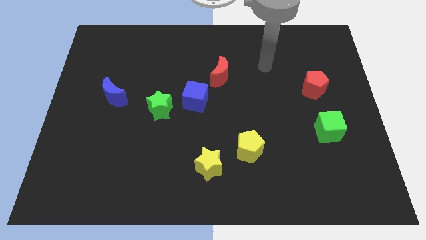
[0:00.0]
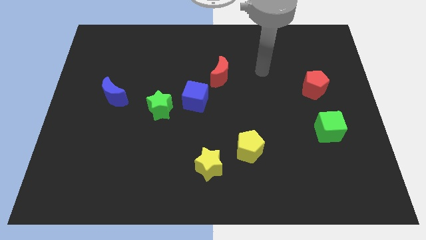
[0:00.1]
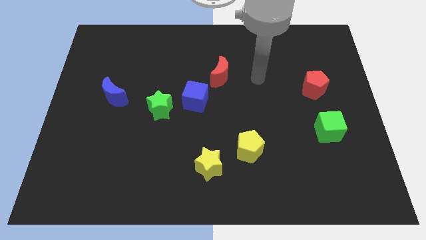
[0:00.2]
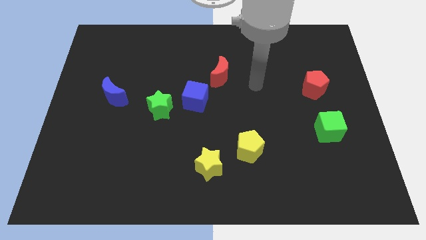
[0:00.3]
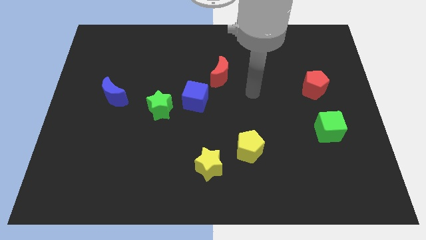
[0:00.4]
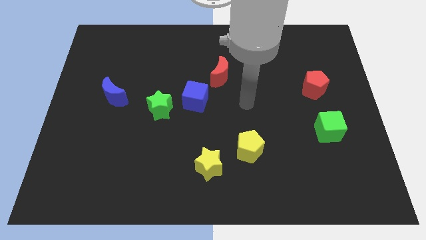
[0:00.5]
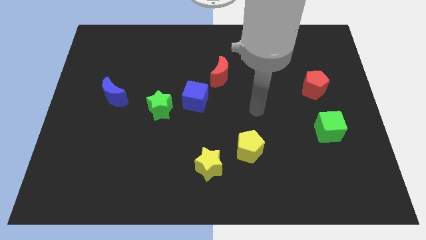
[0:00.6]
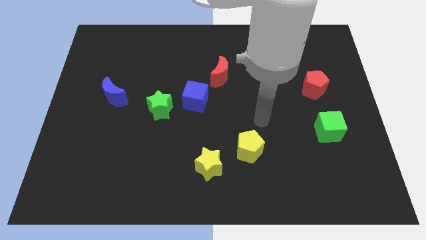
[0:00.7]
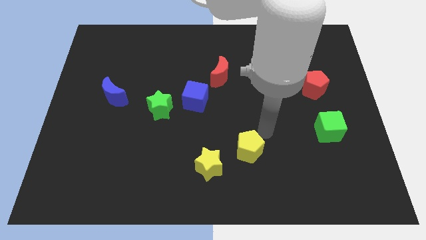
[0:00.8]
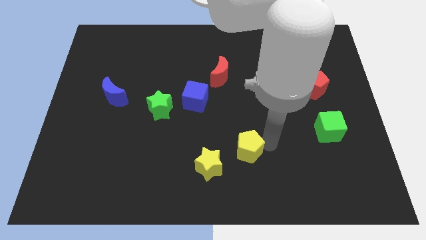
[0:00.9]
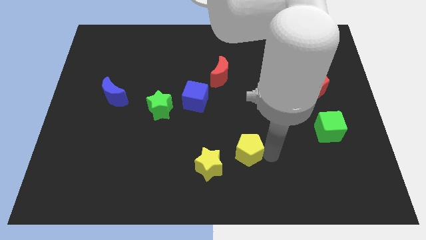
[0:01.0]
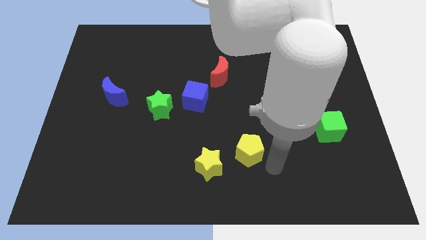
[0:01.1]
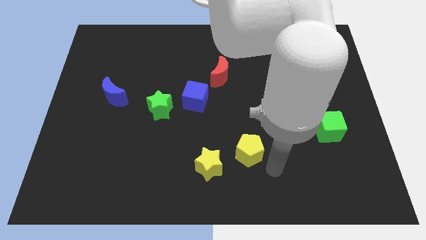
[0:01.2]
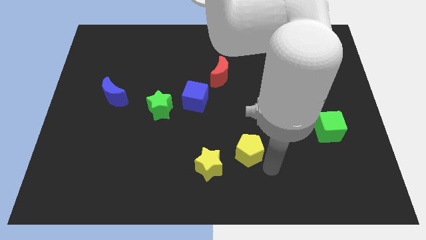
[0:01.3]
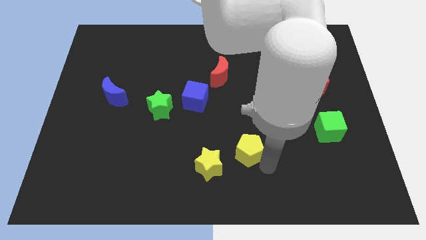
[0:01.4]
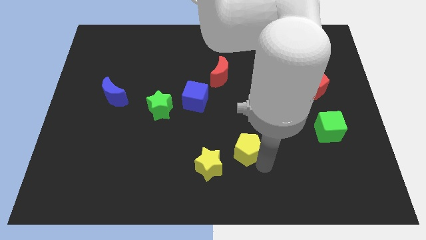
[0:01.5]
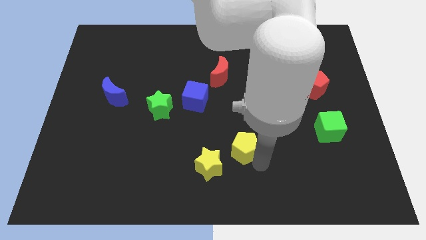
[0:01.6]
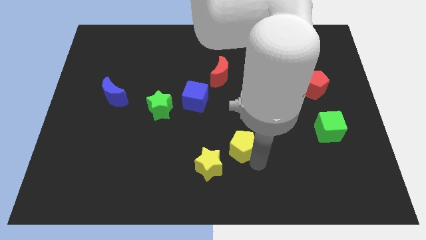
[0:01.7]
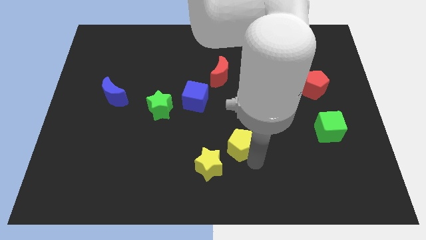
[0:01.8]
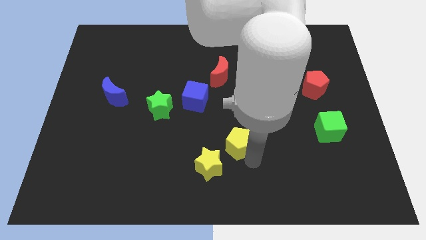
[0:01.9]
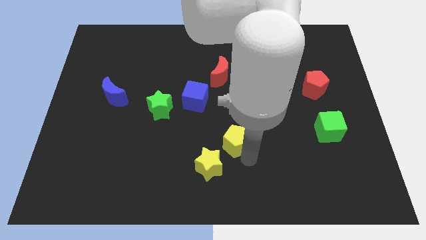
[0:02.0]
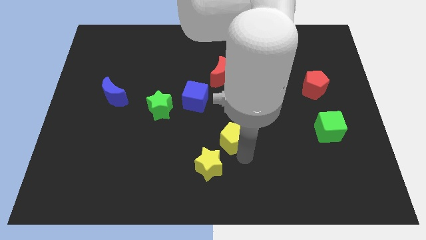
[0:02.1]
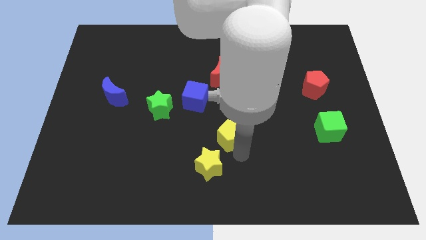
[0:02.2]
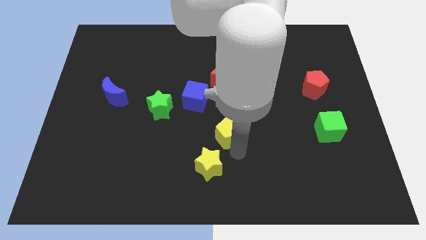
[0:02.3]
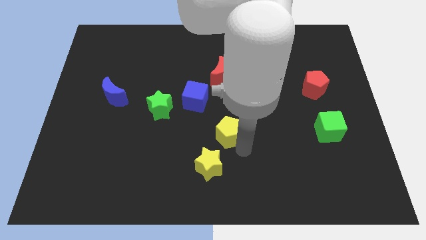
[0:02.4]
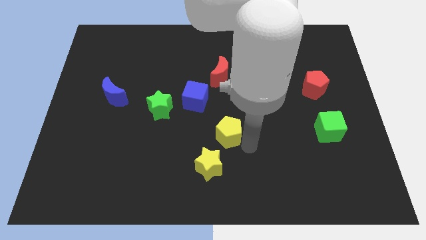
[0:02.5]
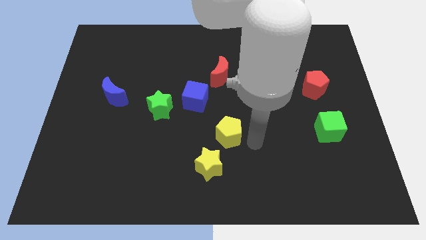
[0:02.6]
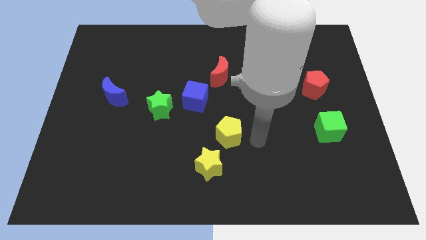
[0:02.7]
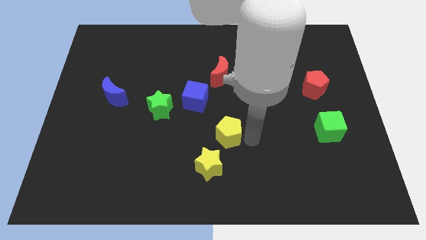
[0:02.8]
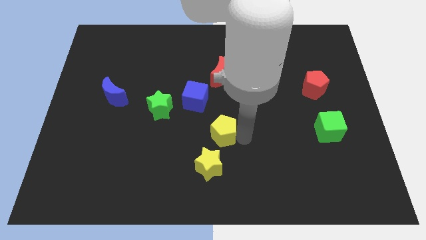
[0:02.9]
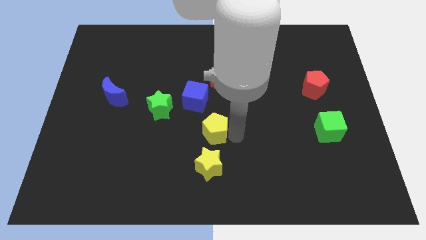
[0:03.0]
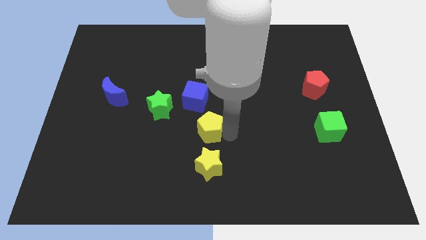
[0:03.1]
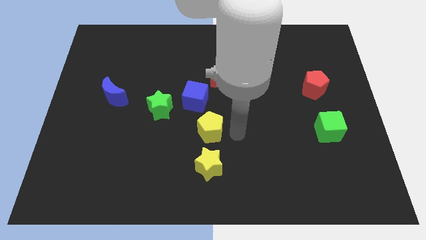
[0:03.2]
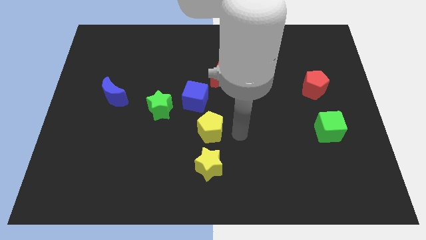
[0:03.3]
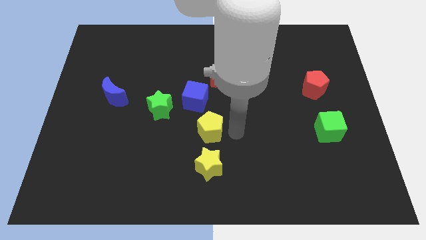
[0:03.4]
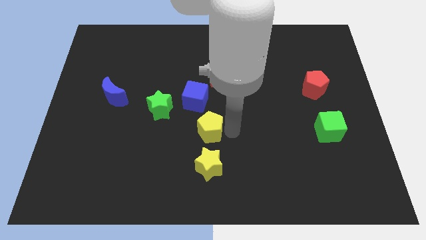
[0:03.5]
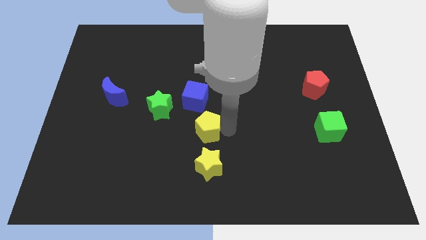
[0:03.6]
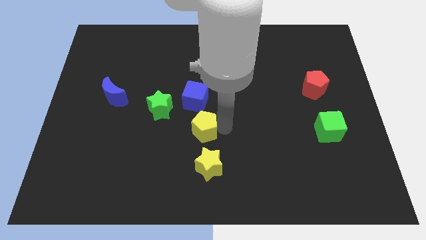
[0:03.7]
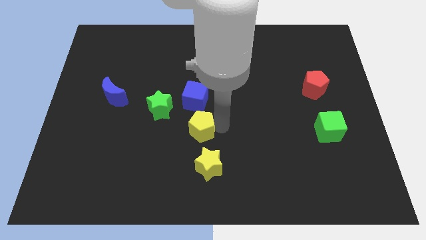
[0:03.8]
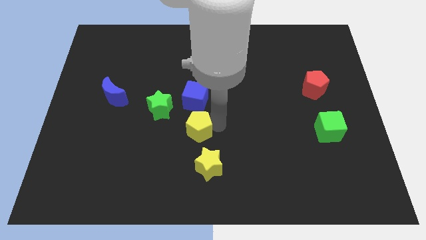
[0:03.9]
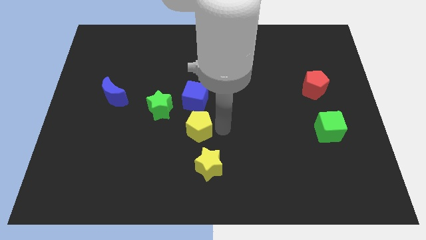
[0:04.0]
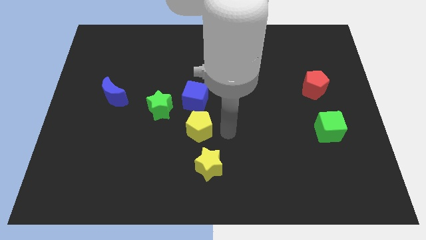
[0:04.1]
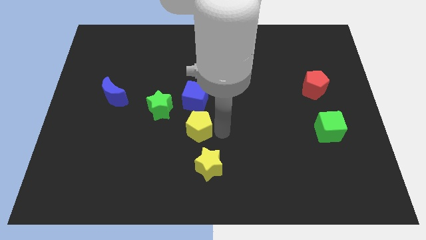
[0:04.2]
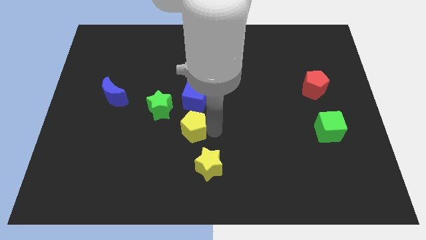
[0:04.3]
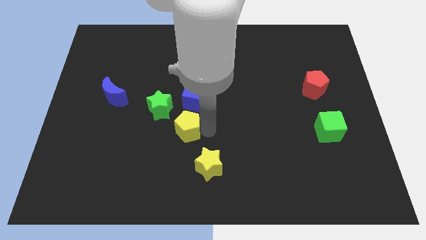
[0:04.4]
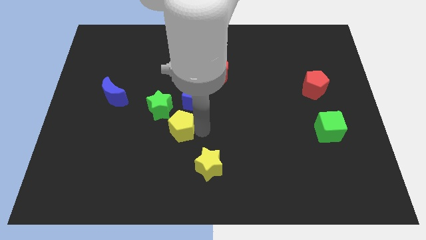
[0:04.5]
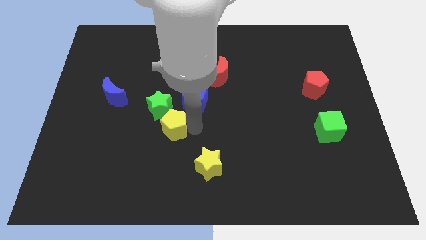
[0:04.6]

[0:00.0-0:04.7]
push the yellow pentagon to the bottom side of the green star

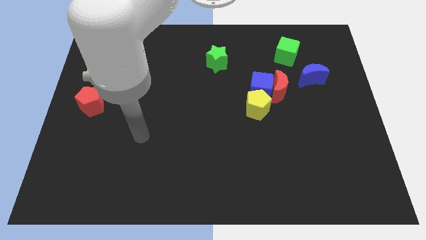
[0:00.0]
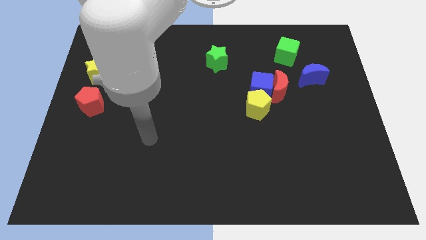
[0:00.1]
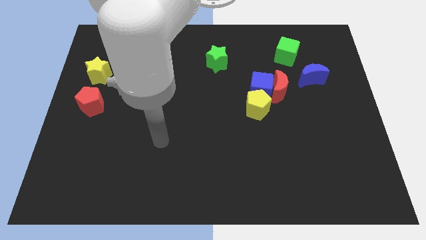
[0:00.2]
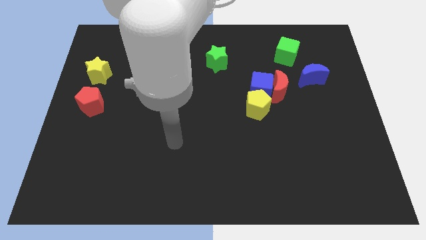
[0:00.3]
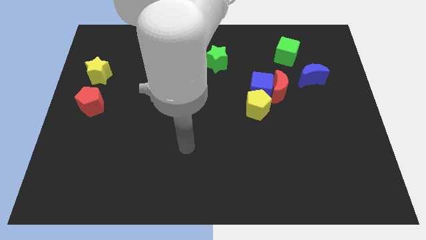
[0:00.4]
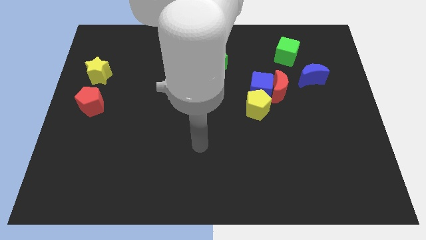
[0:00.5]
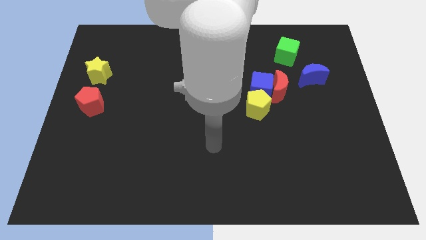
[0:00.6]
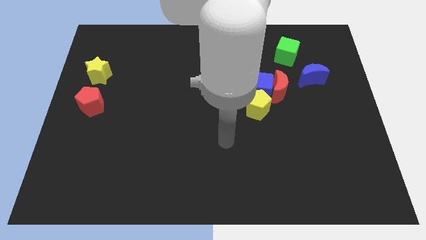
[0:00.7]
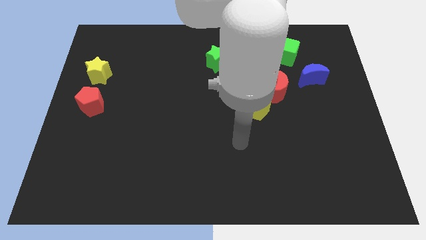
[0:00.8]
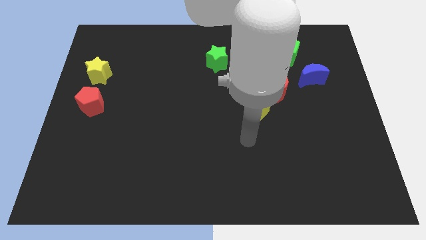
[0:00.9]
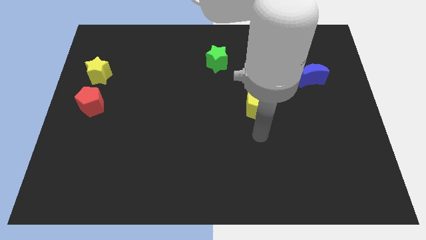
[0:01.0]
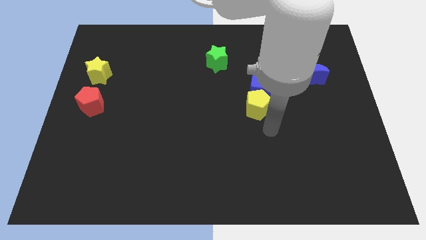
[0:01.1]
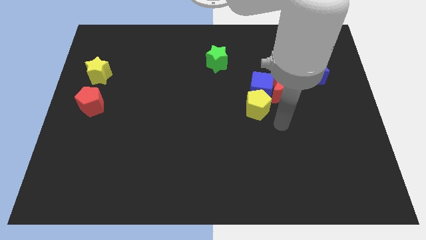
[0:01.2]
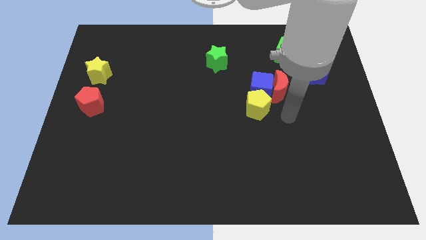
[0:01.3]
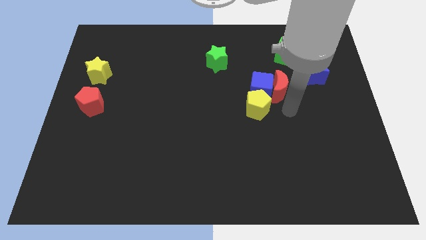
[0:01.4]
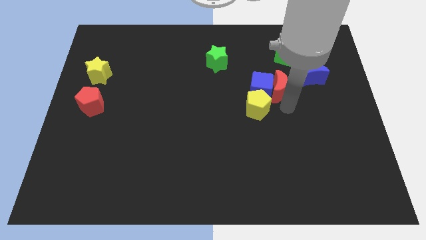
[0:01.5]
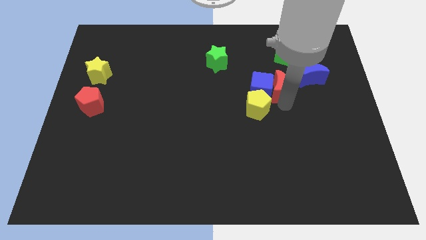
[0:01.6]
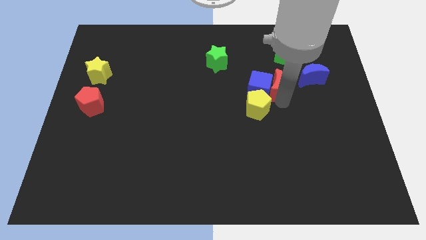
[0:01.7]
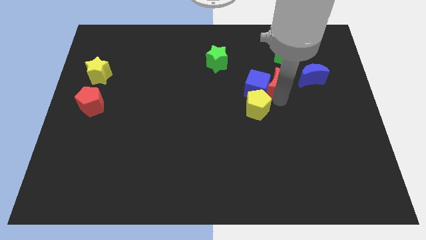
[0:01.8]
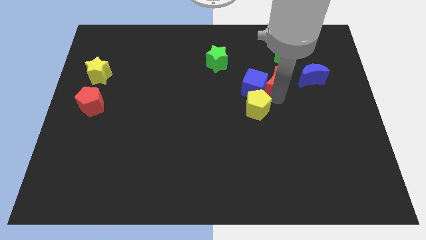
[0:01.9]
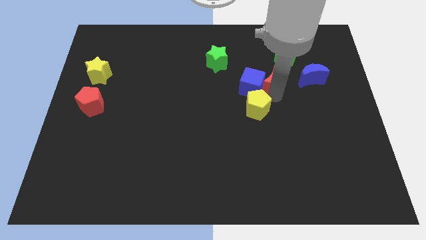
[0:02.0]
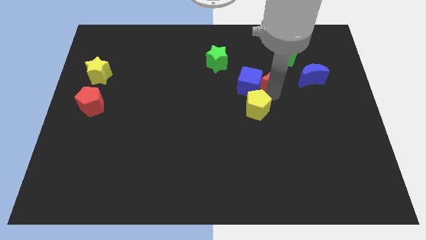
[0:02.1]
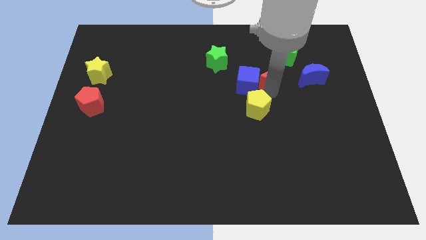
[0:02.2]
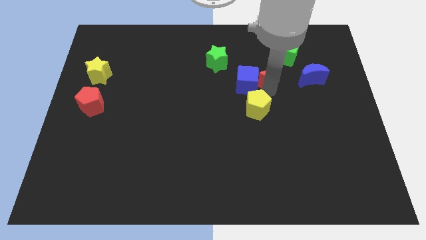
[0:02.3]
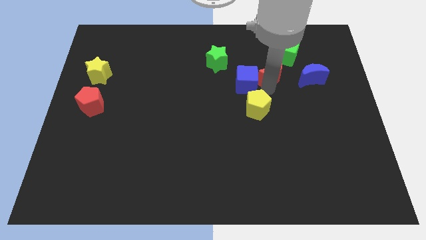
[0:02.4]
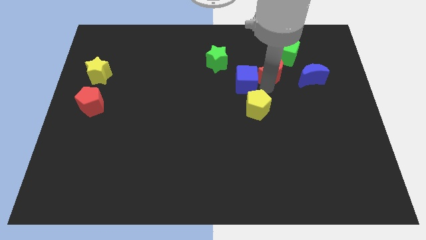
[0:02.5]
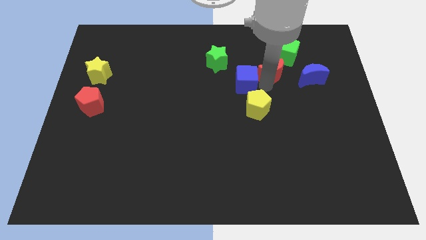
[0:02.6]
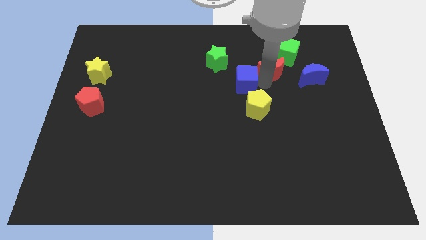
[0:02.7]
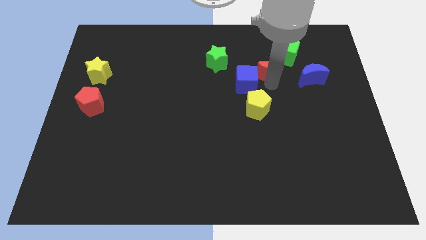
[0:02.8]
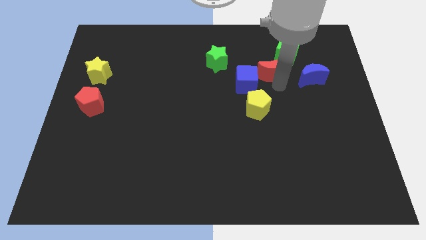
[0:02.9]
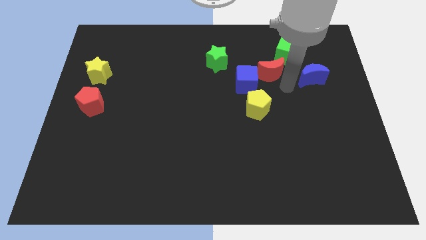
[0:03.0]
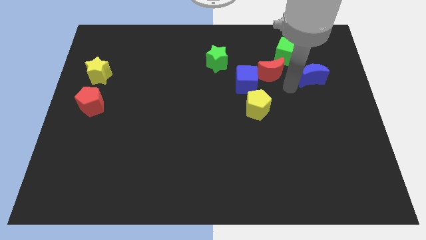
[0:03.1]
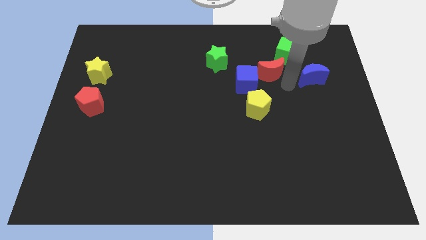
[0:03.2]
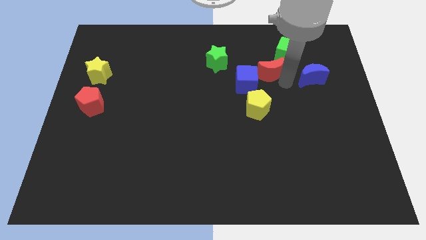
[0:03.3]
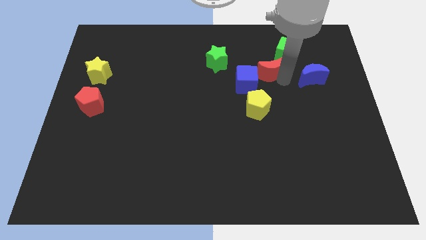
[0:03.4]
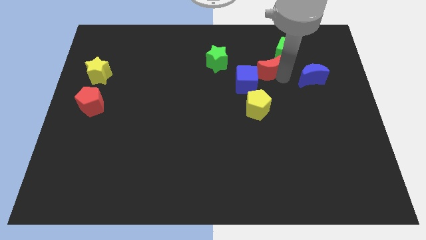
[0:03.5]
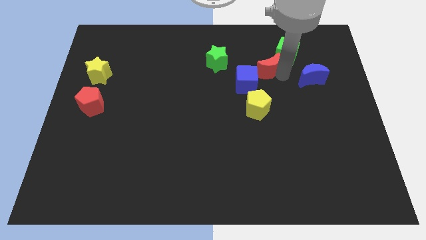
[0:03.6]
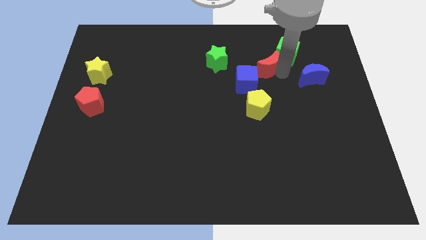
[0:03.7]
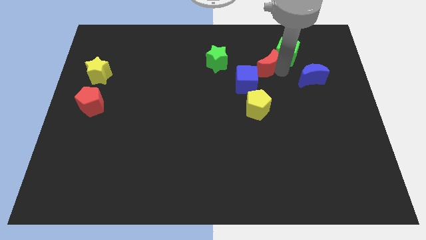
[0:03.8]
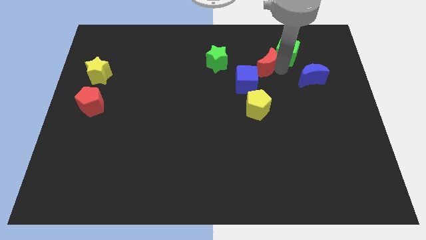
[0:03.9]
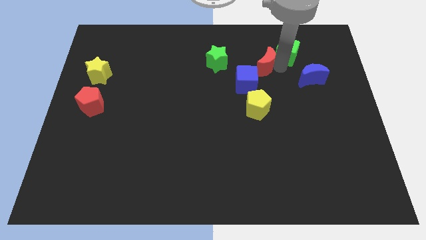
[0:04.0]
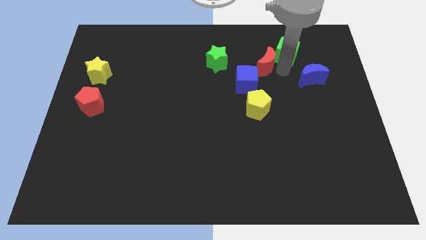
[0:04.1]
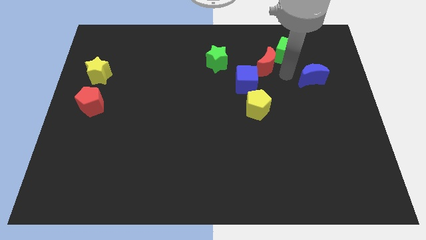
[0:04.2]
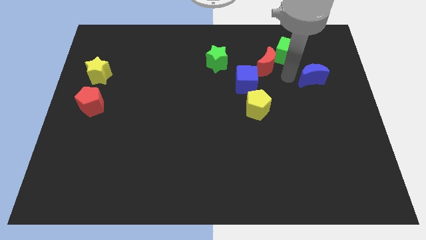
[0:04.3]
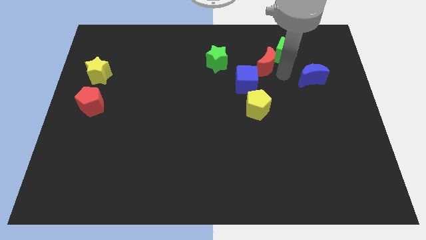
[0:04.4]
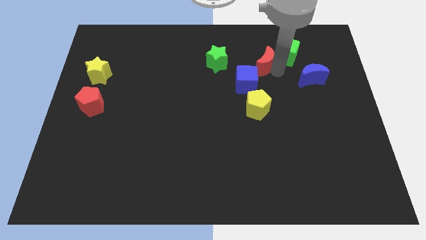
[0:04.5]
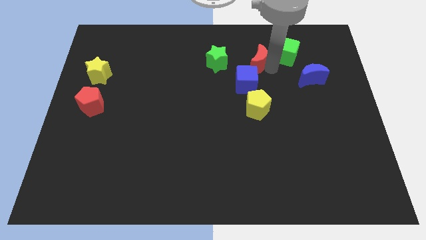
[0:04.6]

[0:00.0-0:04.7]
slide the red moon above the blue cube
